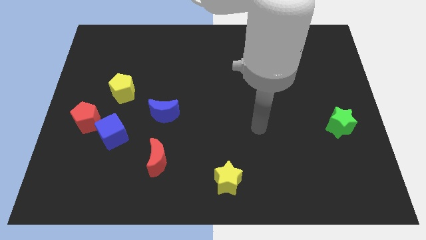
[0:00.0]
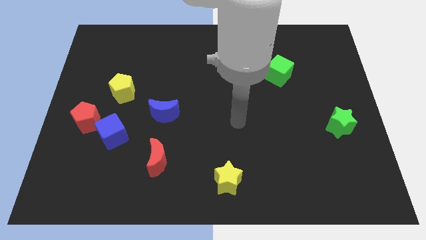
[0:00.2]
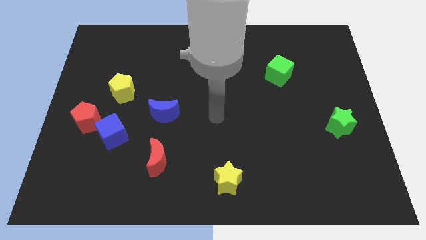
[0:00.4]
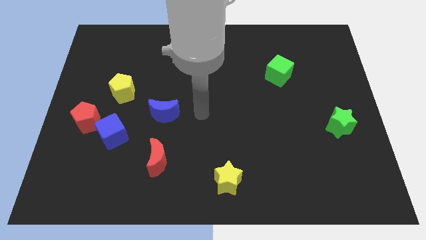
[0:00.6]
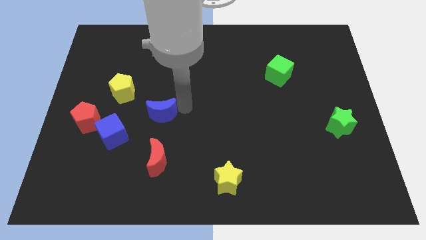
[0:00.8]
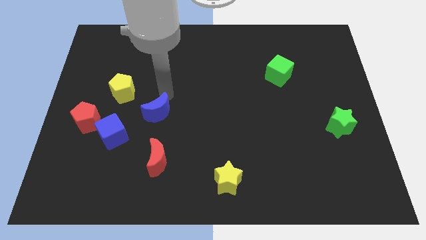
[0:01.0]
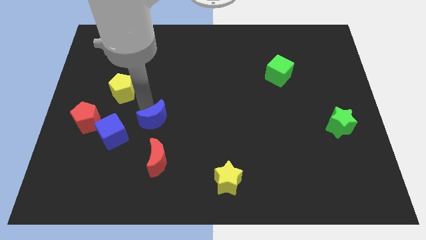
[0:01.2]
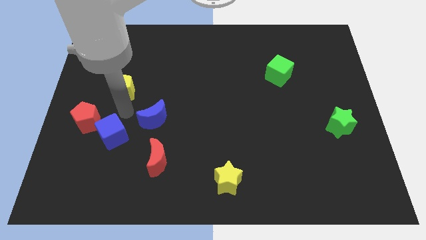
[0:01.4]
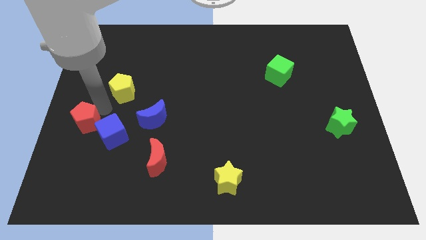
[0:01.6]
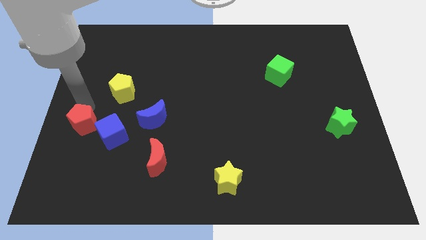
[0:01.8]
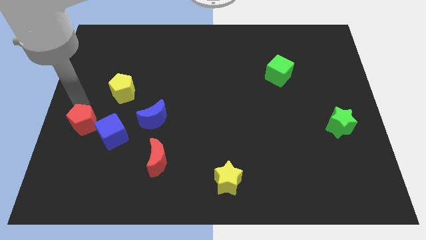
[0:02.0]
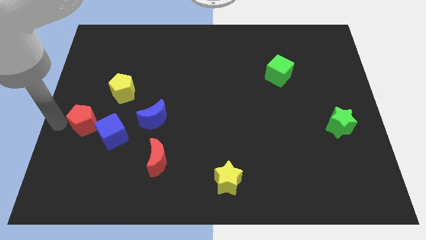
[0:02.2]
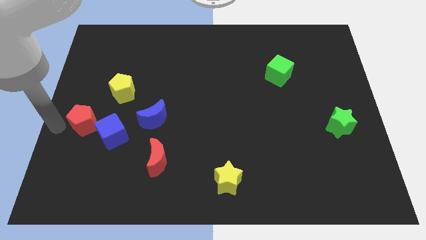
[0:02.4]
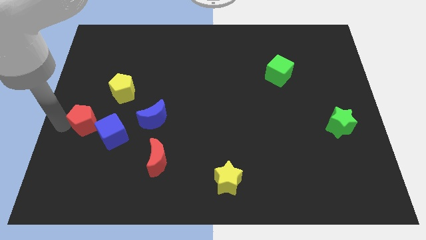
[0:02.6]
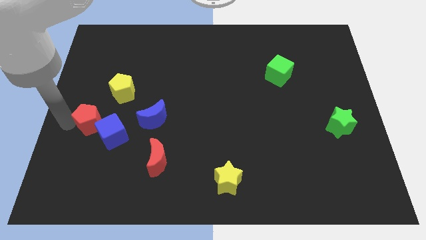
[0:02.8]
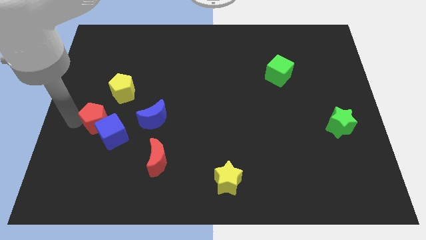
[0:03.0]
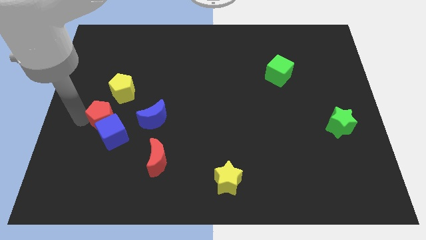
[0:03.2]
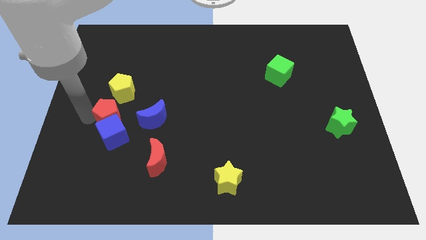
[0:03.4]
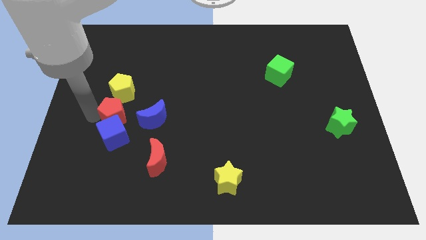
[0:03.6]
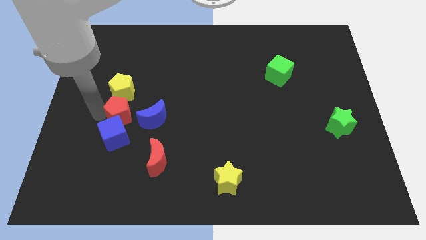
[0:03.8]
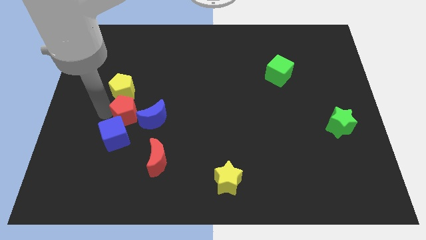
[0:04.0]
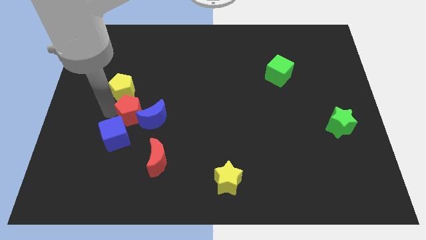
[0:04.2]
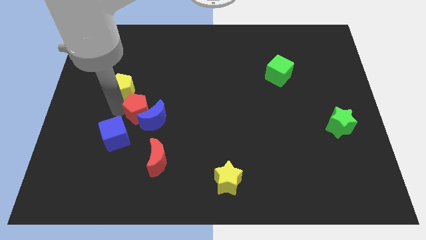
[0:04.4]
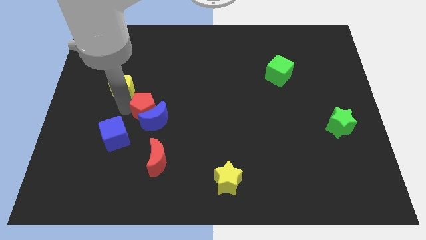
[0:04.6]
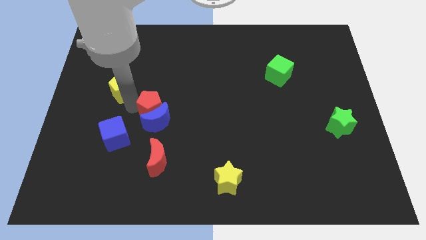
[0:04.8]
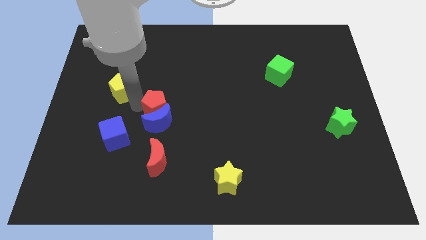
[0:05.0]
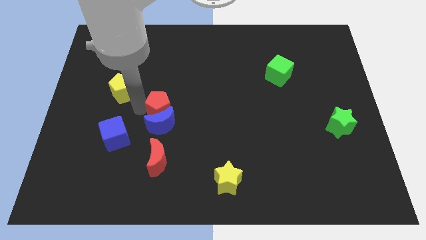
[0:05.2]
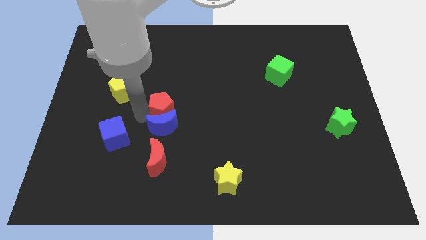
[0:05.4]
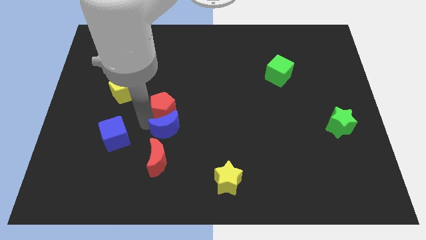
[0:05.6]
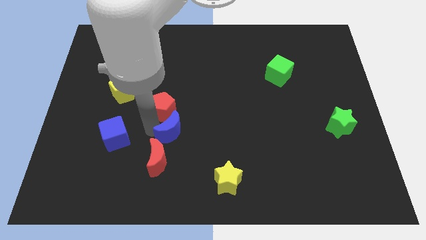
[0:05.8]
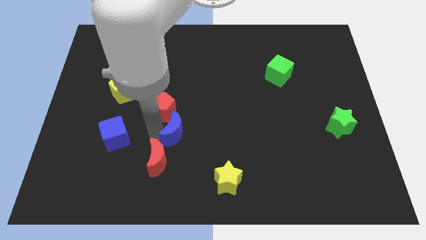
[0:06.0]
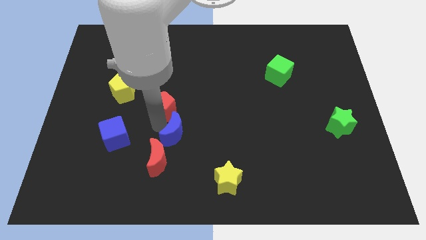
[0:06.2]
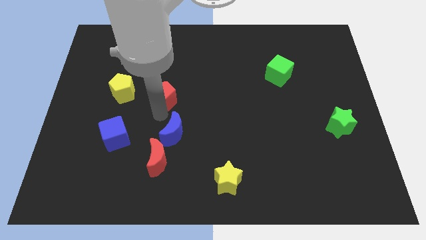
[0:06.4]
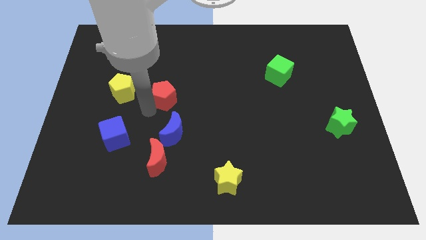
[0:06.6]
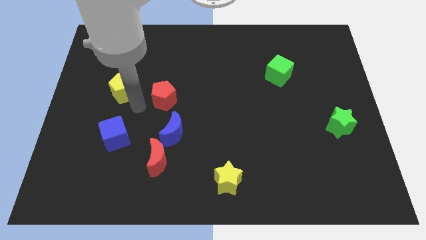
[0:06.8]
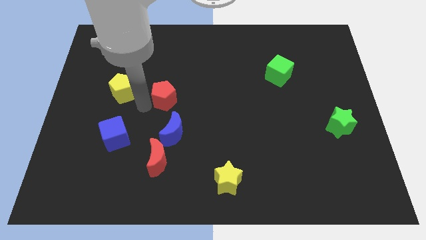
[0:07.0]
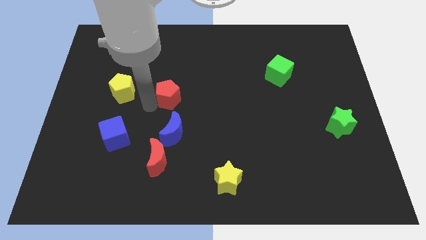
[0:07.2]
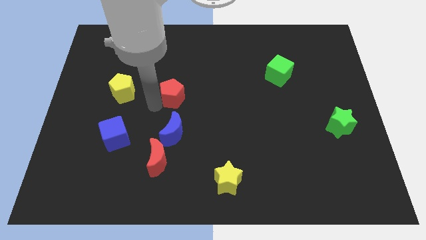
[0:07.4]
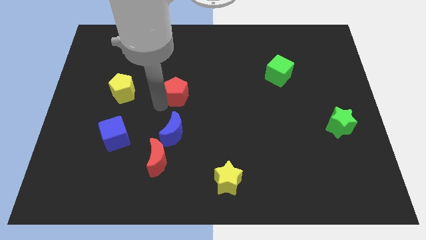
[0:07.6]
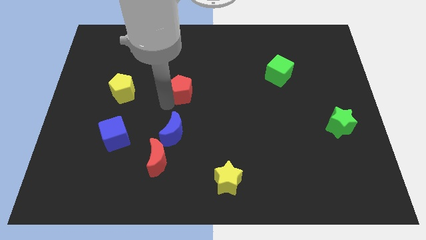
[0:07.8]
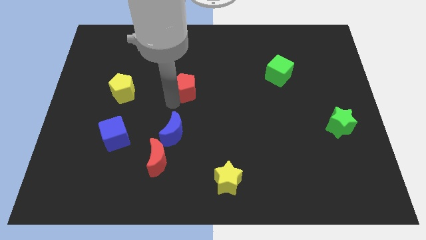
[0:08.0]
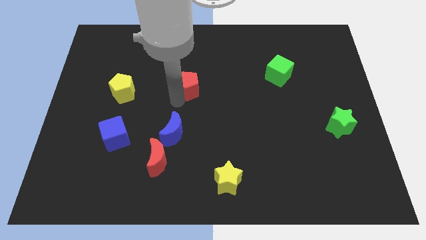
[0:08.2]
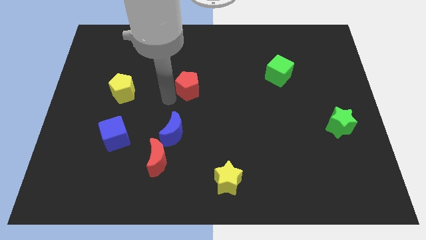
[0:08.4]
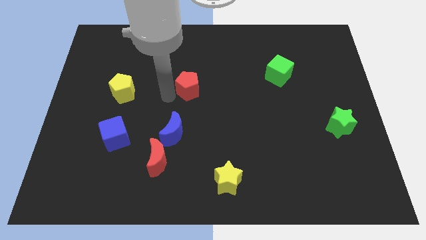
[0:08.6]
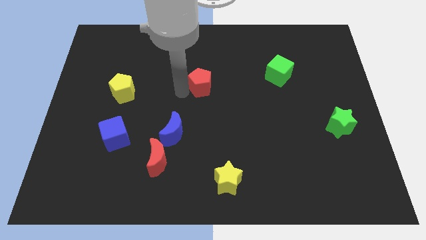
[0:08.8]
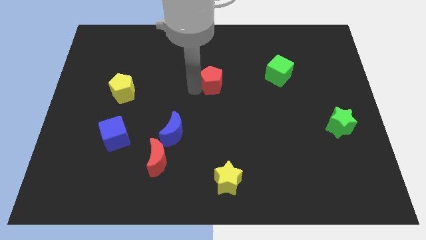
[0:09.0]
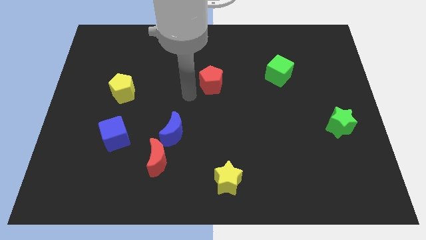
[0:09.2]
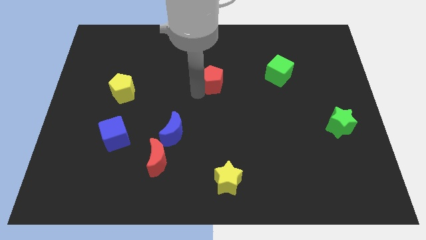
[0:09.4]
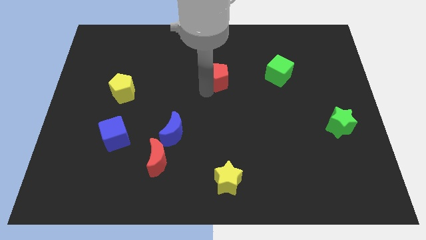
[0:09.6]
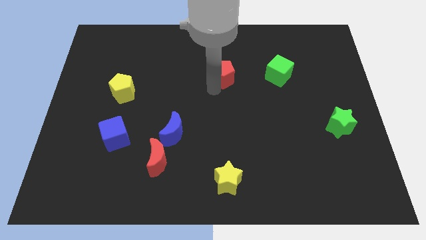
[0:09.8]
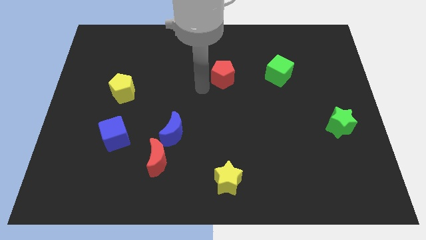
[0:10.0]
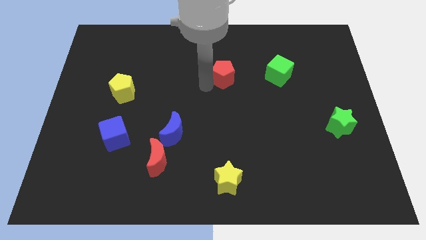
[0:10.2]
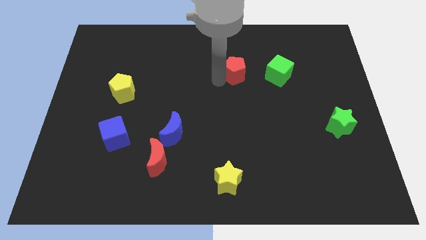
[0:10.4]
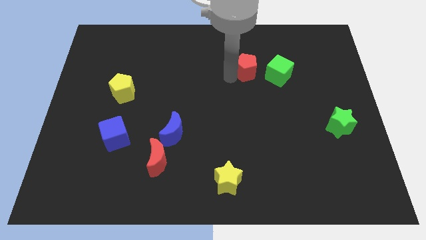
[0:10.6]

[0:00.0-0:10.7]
put the red pentagon diagonally up and to the left of the green cube

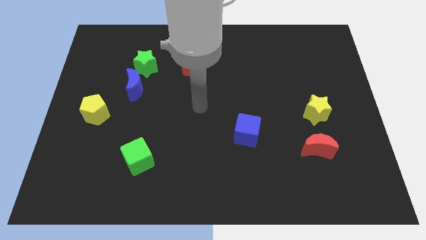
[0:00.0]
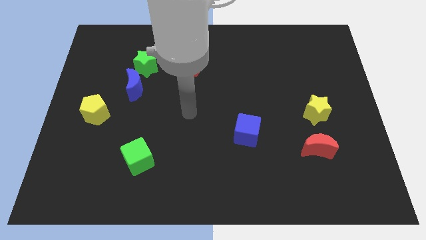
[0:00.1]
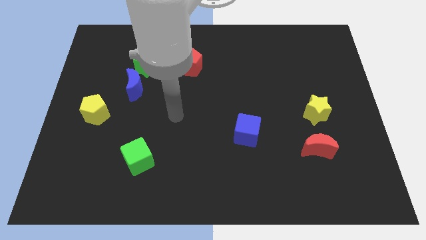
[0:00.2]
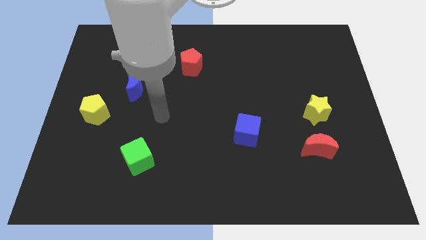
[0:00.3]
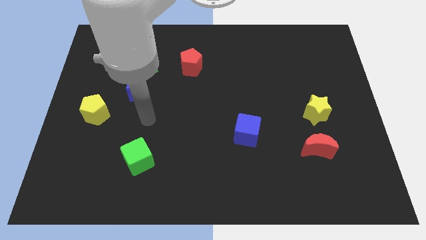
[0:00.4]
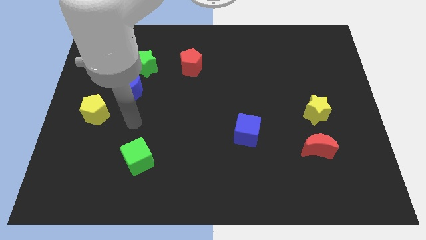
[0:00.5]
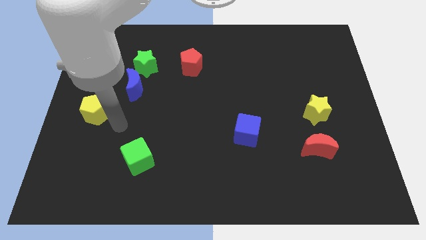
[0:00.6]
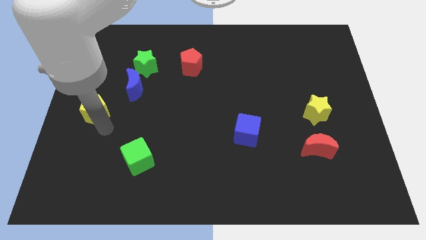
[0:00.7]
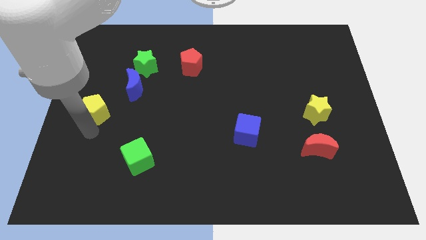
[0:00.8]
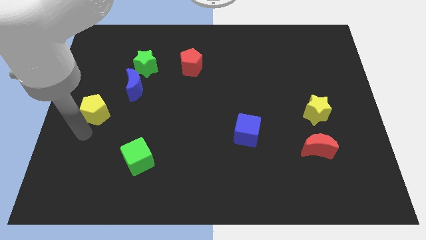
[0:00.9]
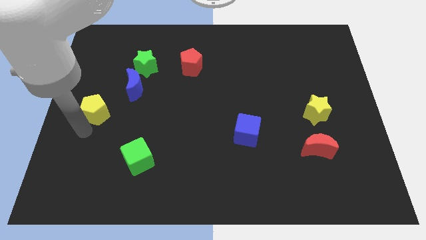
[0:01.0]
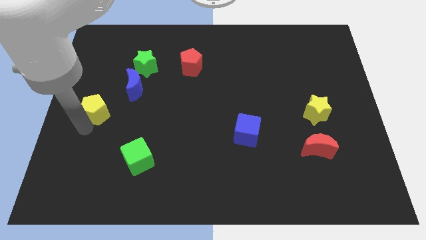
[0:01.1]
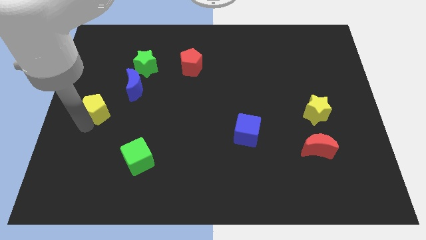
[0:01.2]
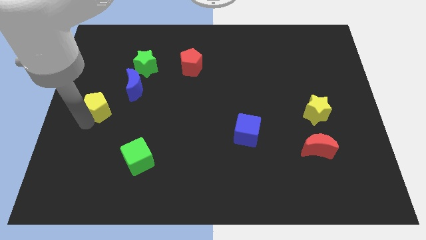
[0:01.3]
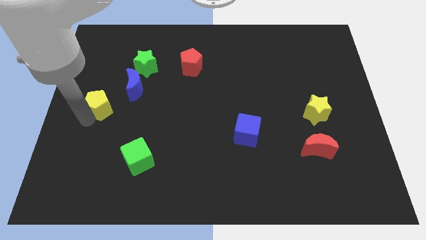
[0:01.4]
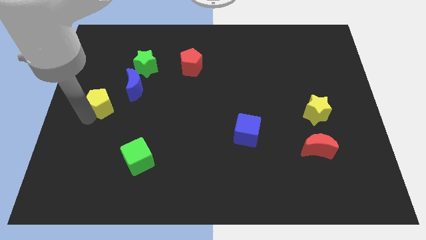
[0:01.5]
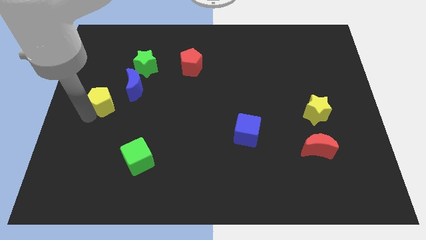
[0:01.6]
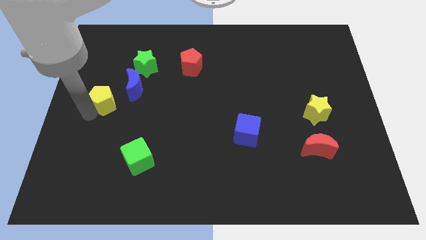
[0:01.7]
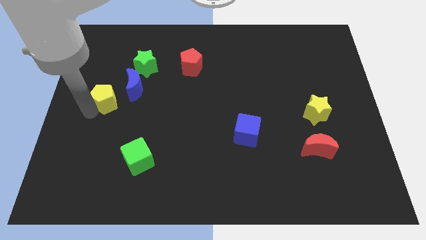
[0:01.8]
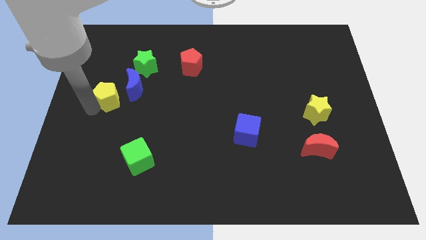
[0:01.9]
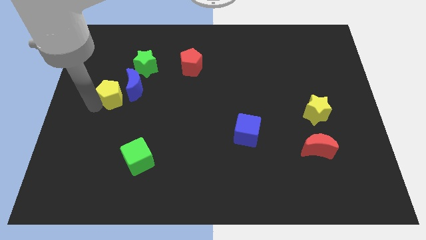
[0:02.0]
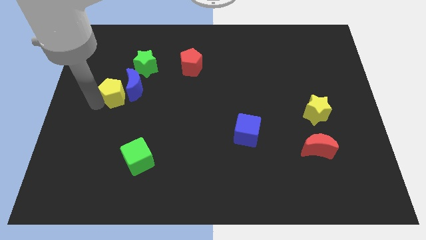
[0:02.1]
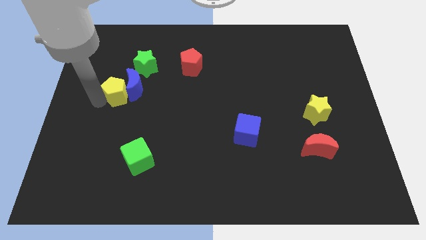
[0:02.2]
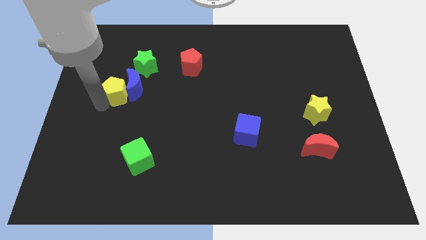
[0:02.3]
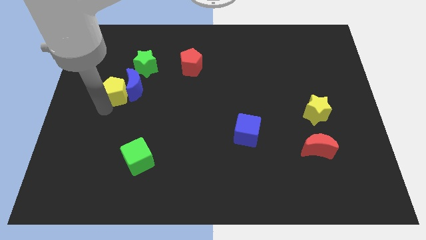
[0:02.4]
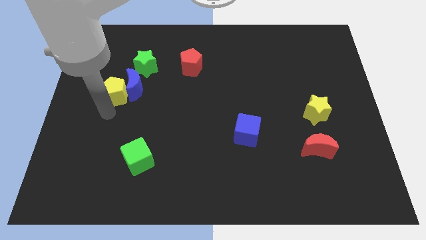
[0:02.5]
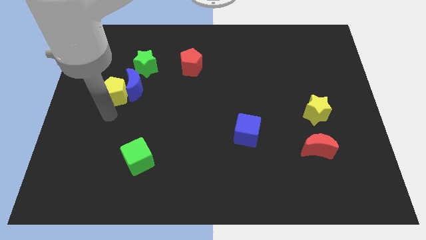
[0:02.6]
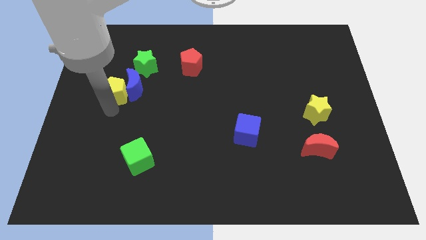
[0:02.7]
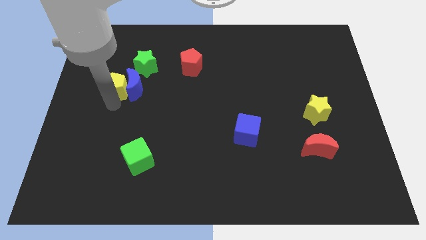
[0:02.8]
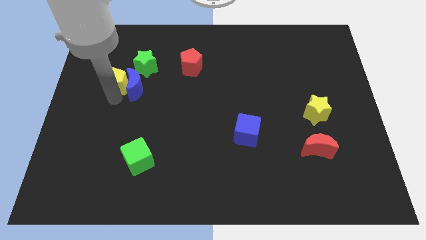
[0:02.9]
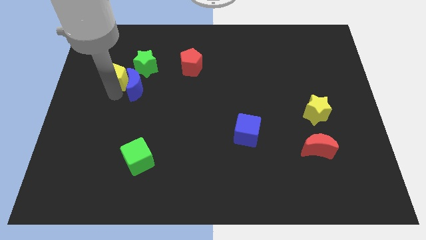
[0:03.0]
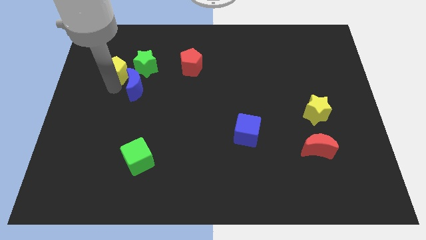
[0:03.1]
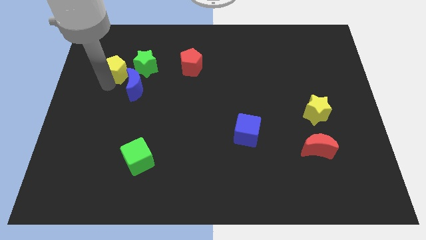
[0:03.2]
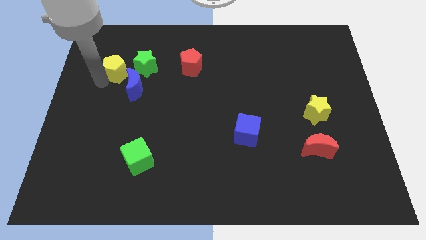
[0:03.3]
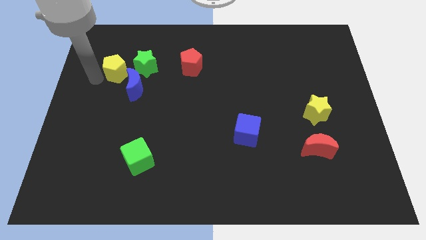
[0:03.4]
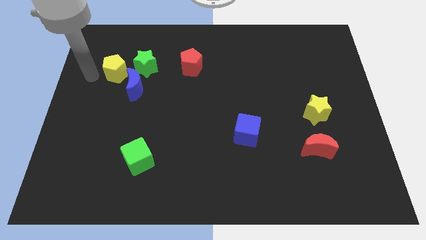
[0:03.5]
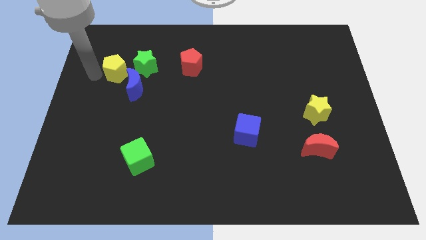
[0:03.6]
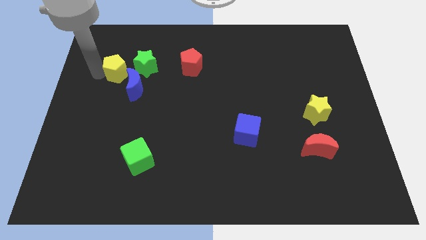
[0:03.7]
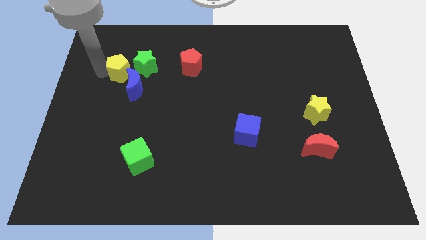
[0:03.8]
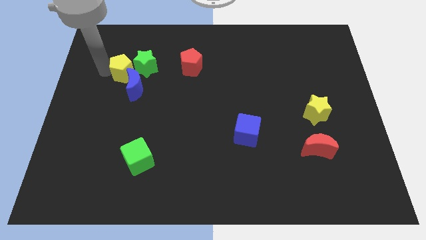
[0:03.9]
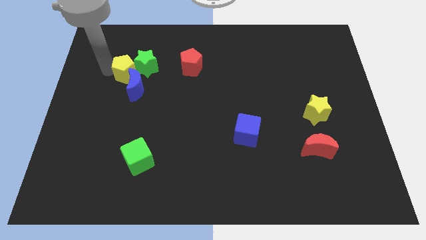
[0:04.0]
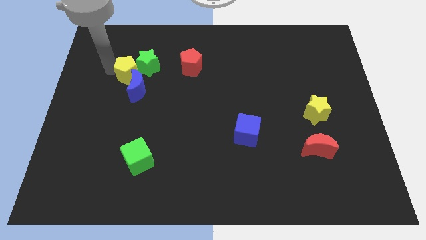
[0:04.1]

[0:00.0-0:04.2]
push the yellow pentagon left of the red pentagon
